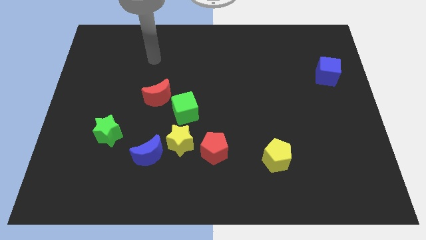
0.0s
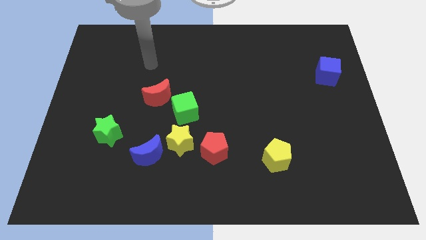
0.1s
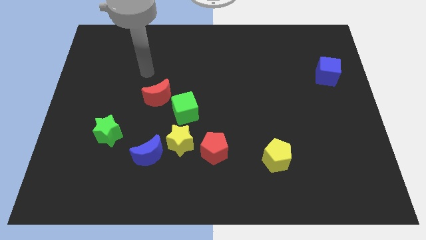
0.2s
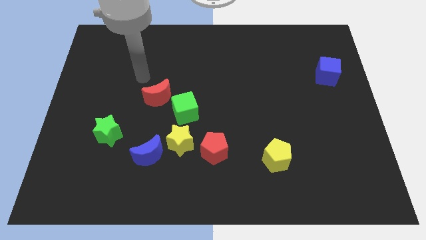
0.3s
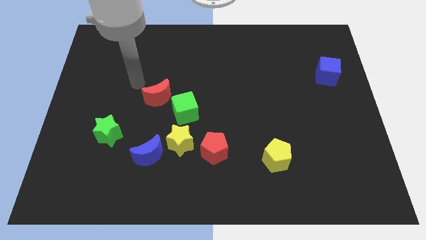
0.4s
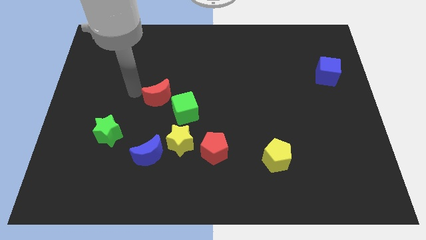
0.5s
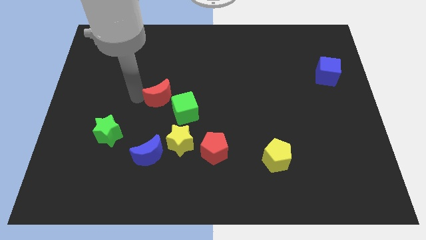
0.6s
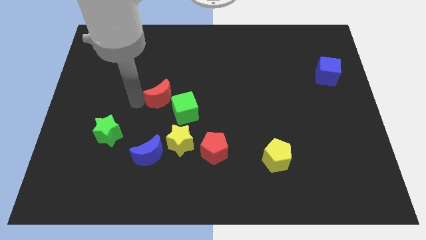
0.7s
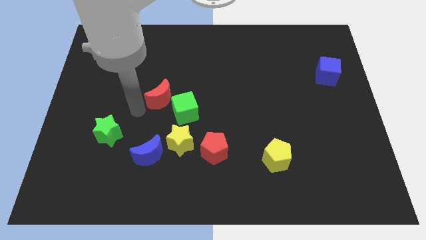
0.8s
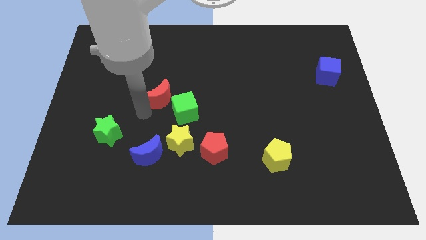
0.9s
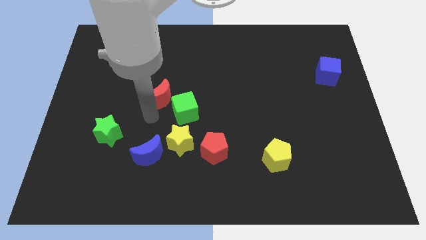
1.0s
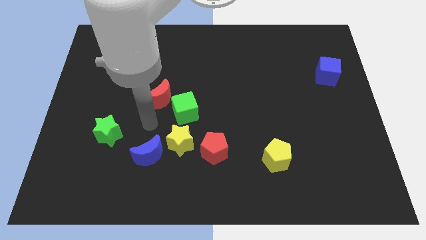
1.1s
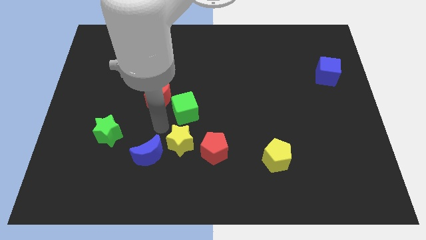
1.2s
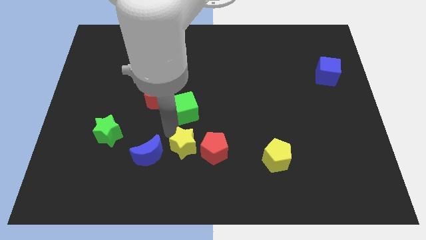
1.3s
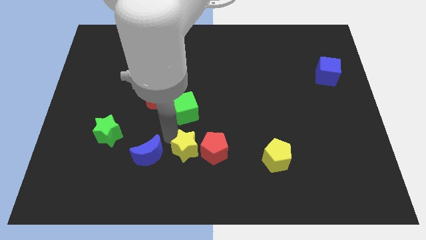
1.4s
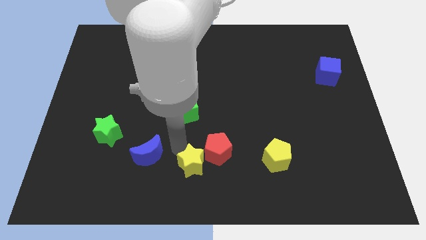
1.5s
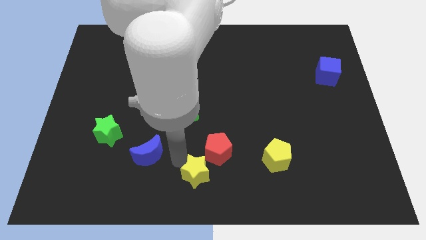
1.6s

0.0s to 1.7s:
move the blue moon away from the yellow star

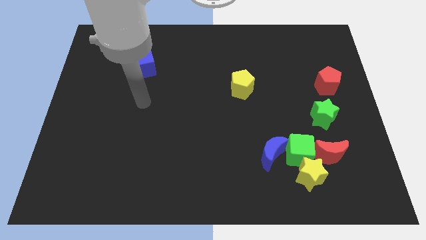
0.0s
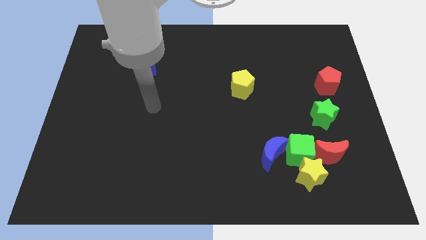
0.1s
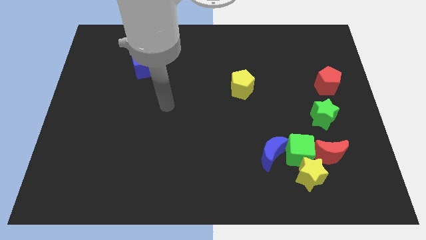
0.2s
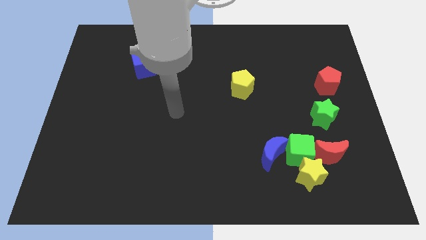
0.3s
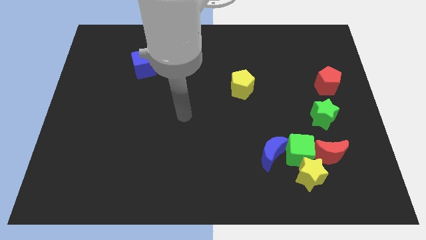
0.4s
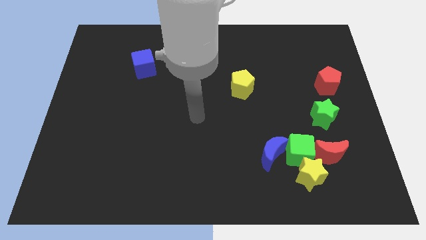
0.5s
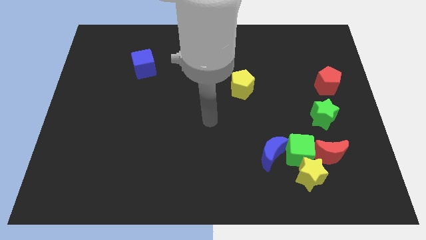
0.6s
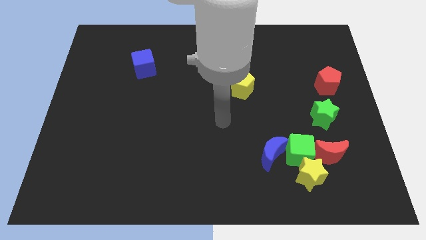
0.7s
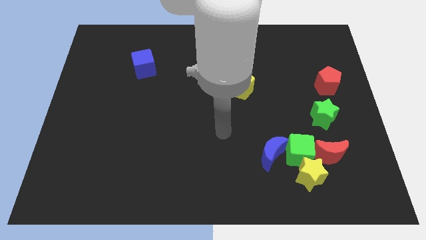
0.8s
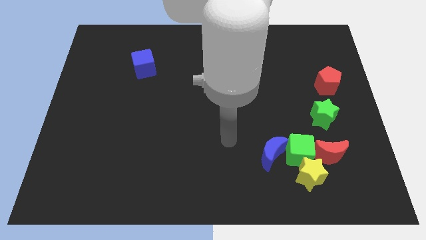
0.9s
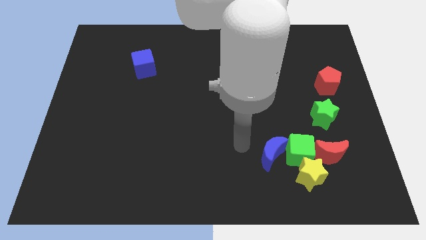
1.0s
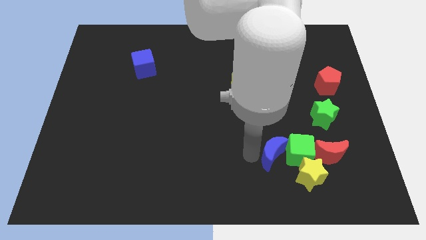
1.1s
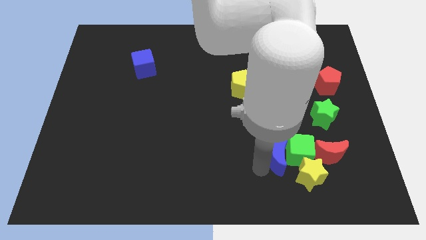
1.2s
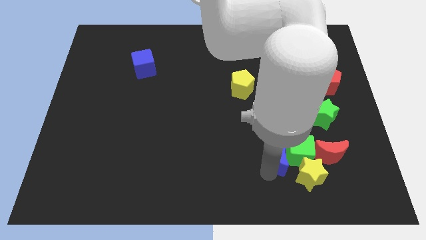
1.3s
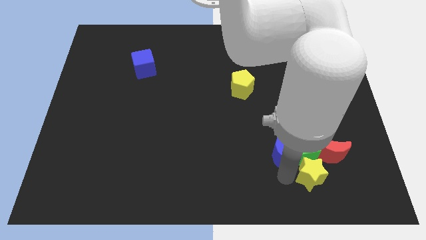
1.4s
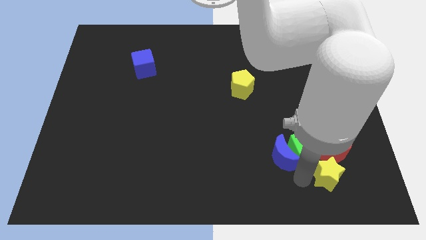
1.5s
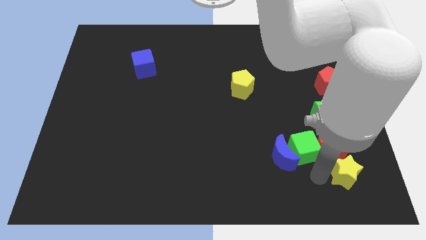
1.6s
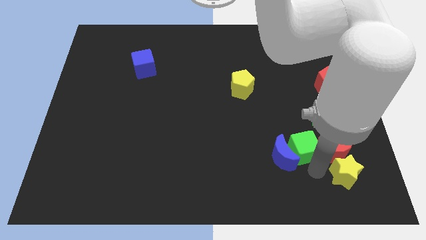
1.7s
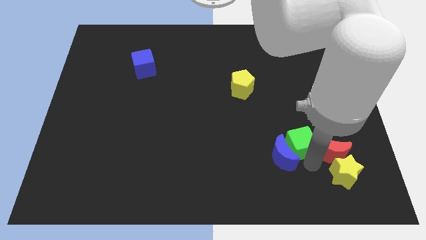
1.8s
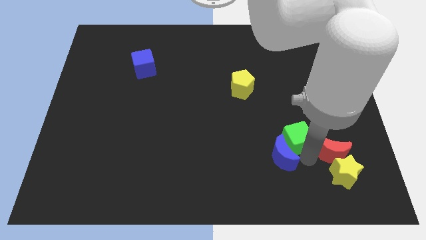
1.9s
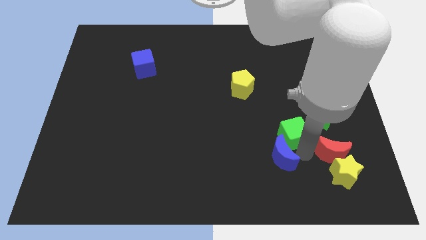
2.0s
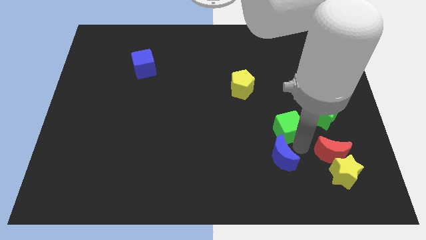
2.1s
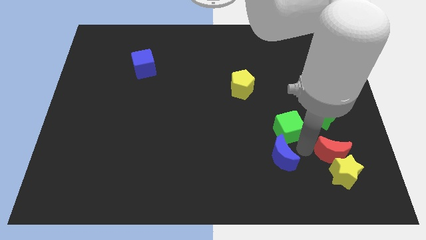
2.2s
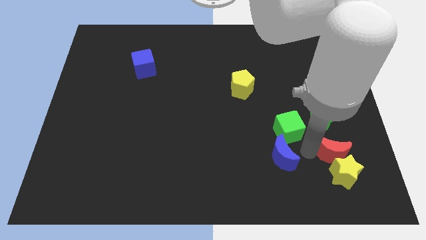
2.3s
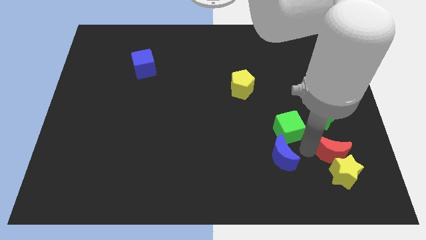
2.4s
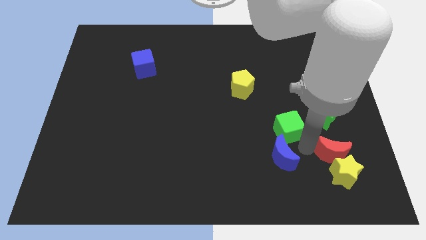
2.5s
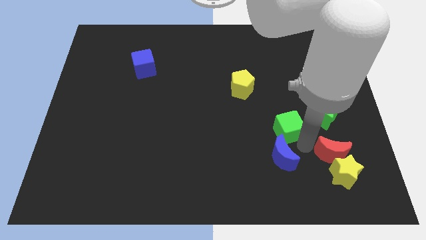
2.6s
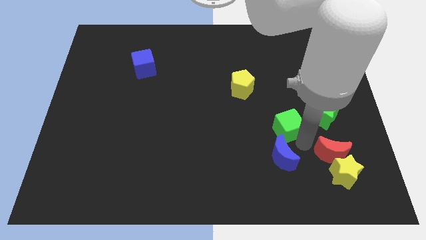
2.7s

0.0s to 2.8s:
pull the green cube apart from the yellow star, blue moon, and red moon

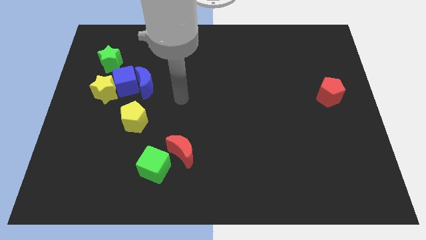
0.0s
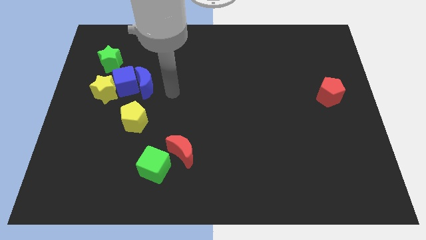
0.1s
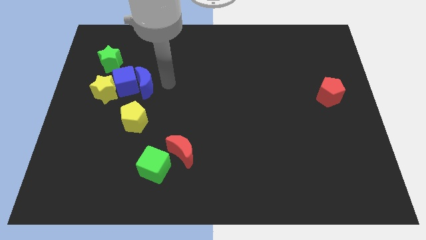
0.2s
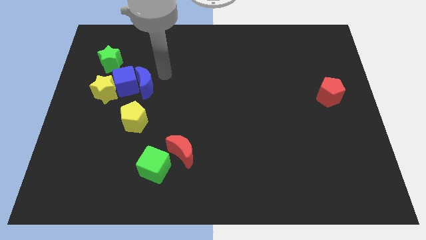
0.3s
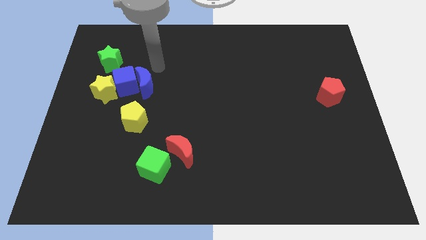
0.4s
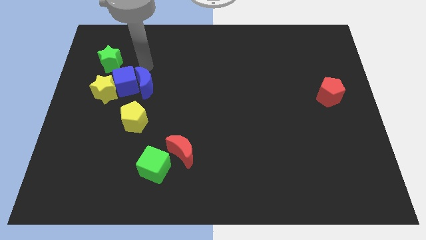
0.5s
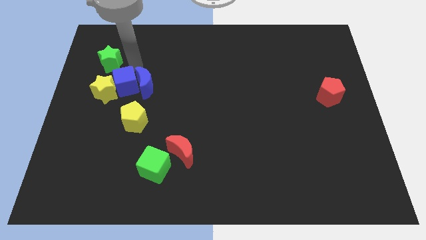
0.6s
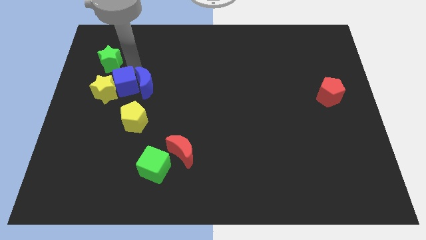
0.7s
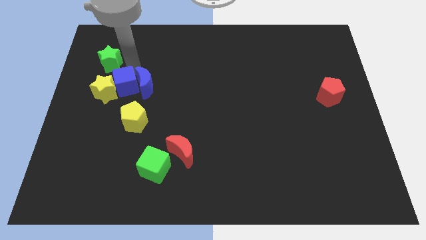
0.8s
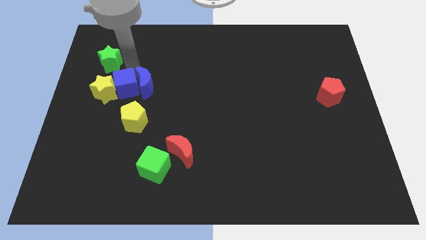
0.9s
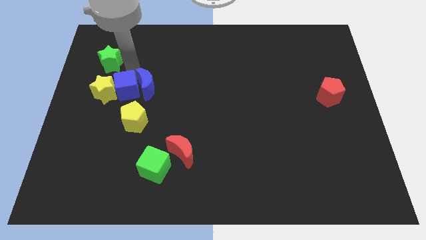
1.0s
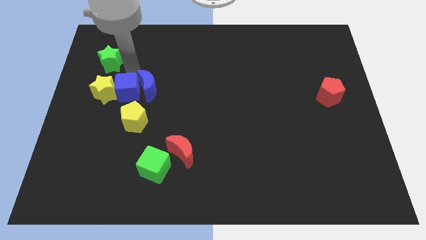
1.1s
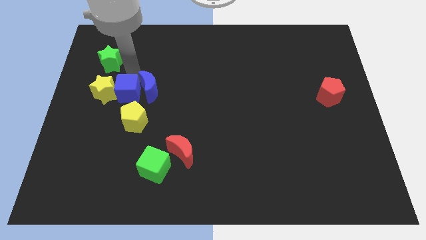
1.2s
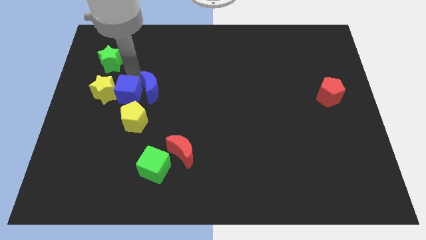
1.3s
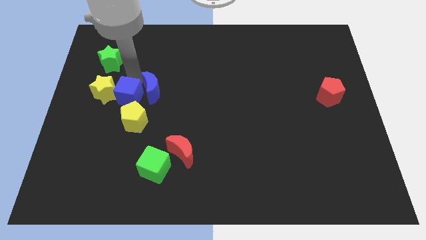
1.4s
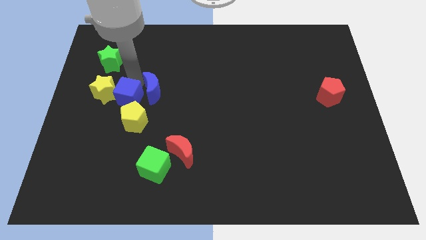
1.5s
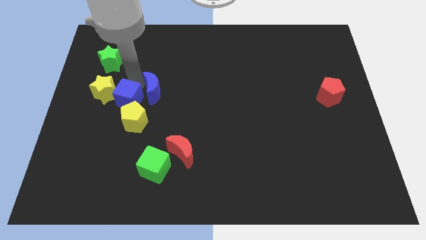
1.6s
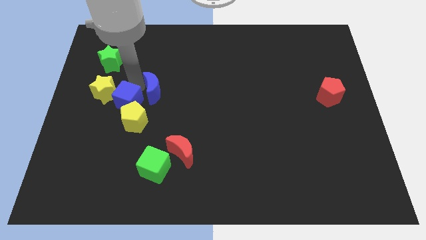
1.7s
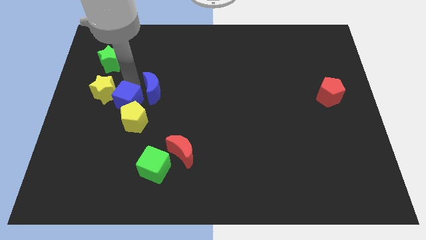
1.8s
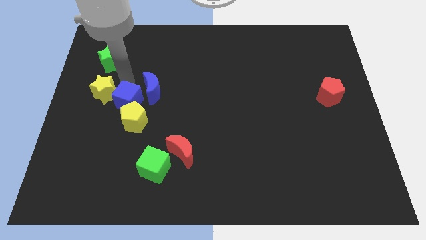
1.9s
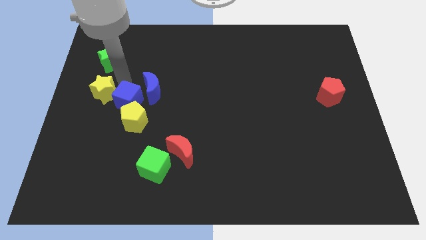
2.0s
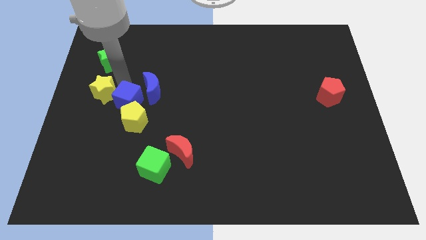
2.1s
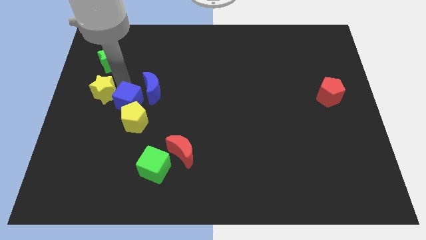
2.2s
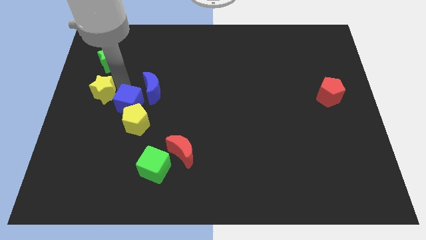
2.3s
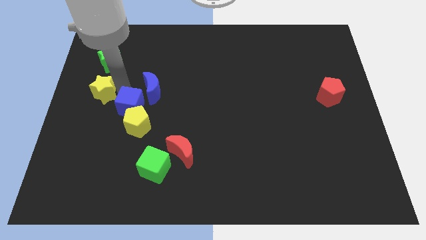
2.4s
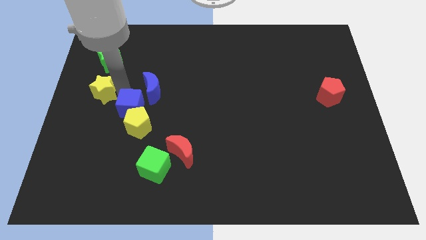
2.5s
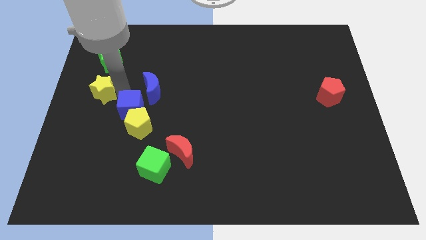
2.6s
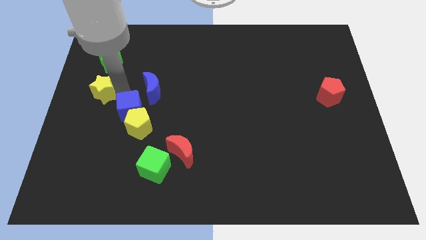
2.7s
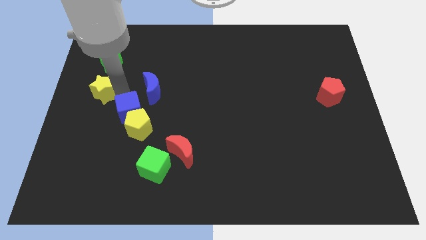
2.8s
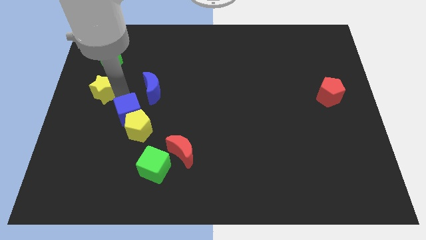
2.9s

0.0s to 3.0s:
move the blue cube away from the blue moon, yellow star, and green star

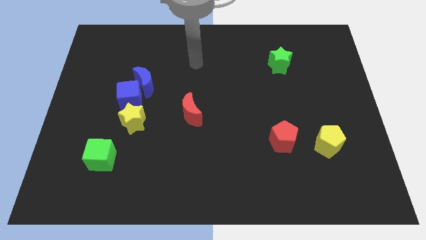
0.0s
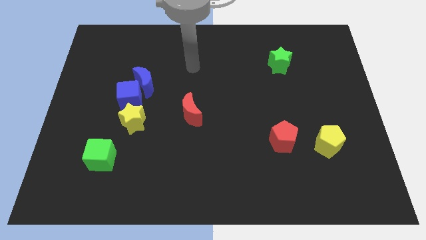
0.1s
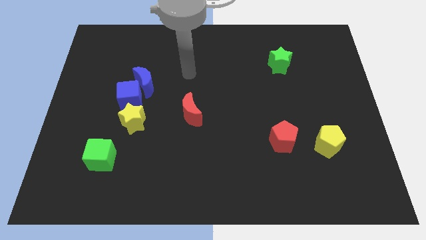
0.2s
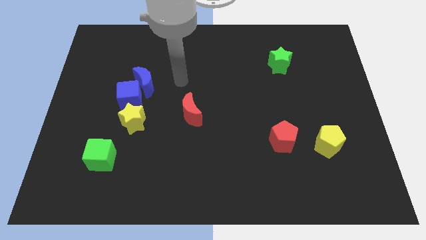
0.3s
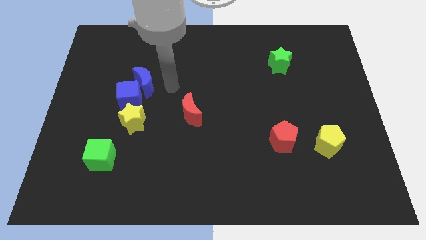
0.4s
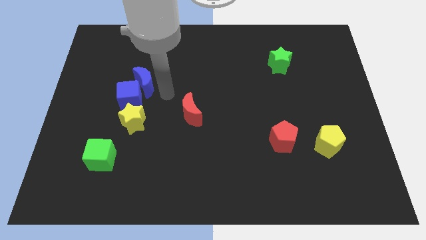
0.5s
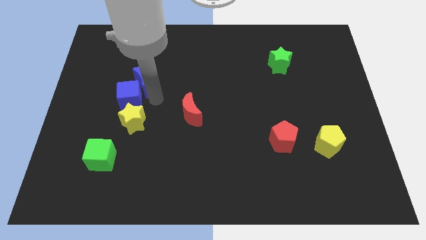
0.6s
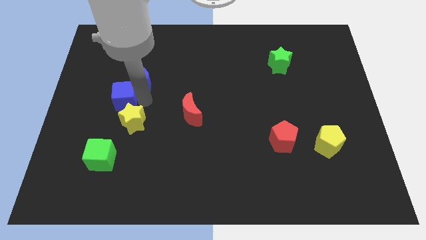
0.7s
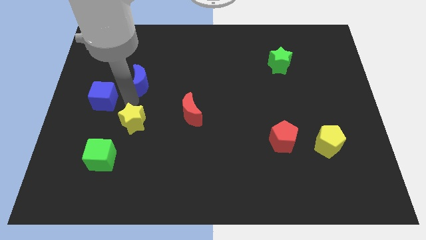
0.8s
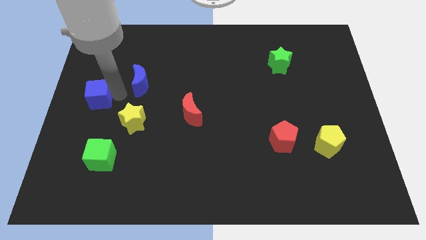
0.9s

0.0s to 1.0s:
pull the blue moon apart from the blue cube

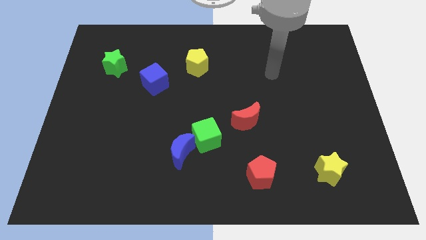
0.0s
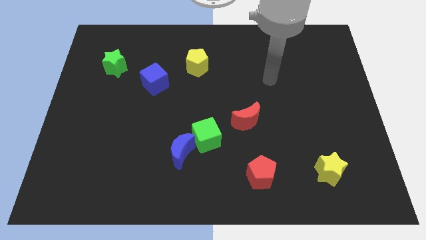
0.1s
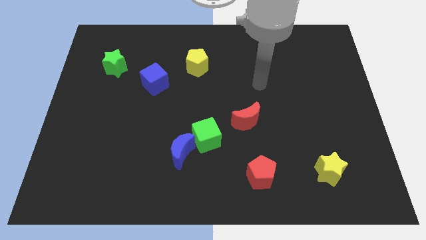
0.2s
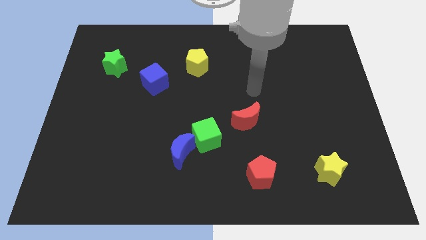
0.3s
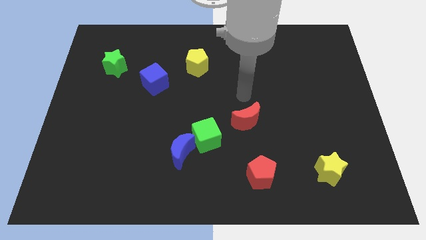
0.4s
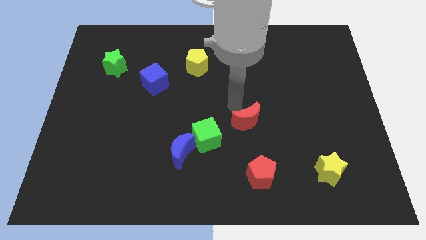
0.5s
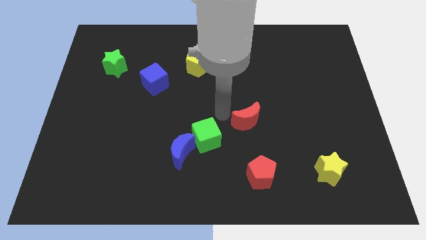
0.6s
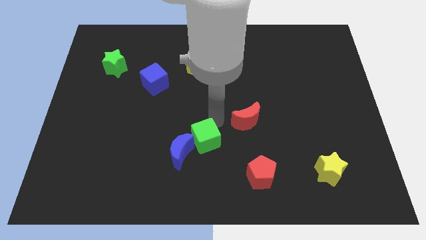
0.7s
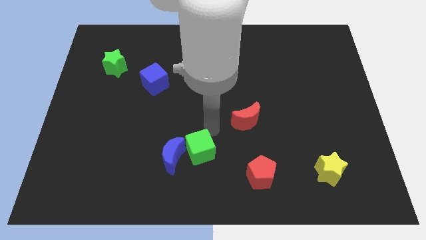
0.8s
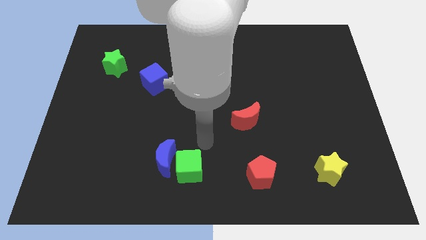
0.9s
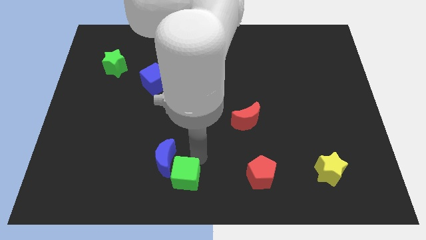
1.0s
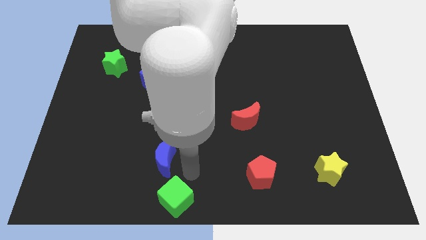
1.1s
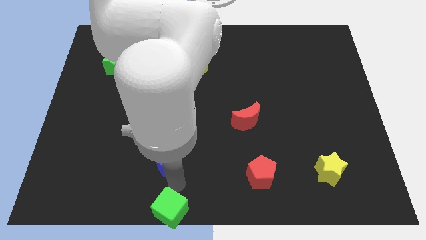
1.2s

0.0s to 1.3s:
move the blue moon away from the green cube
